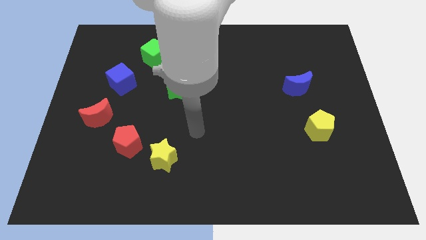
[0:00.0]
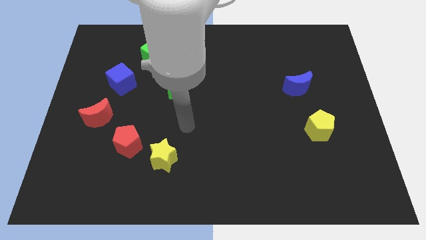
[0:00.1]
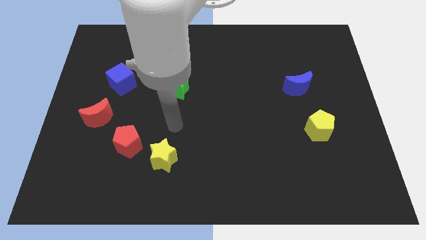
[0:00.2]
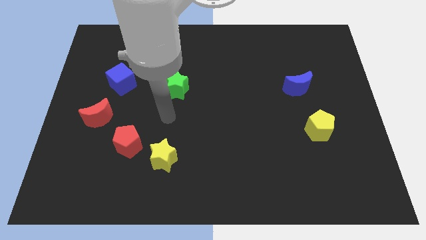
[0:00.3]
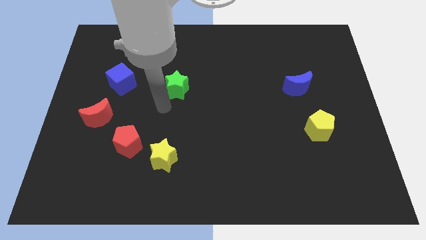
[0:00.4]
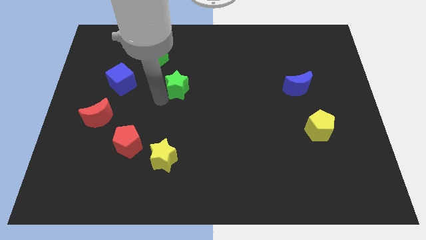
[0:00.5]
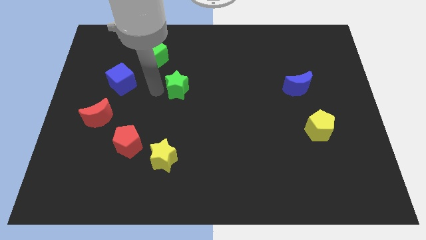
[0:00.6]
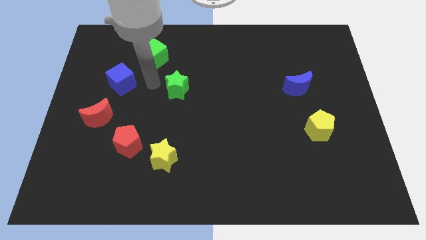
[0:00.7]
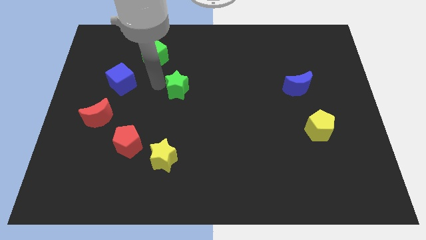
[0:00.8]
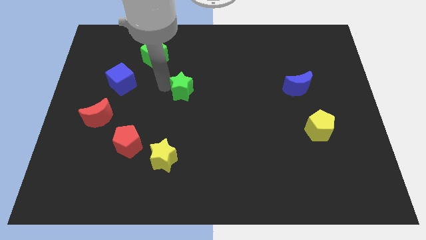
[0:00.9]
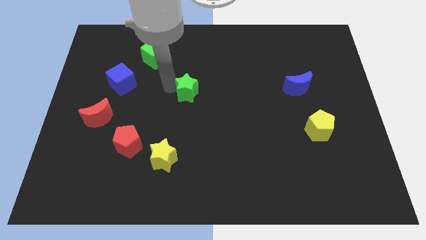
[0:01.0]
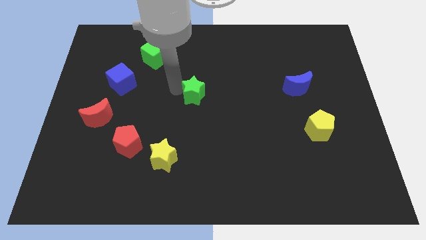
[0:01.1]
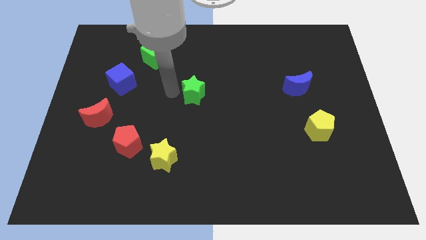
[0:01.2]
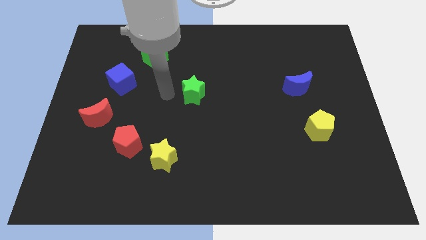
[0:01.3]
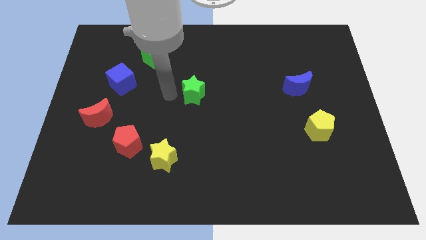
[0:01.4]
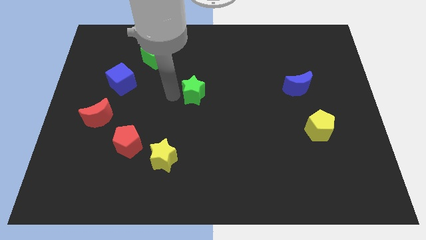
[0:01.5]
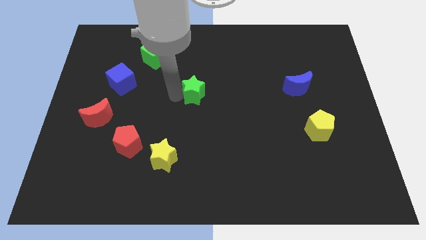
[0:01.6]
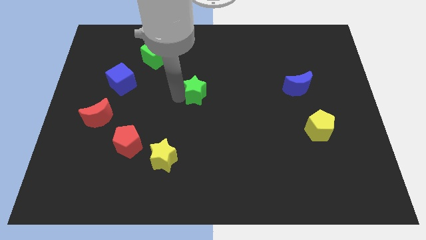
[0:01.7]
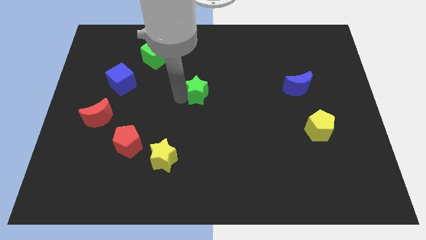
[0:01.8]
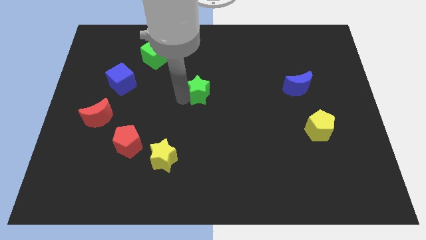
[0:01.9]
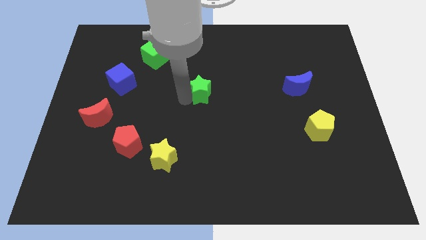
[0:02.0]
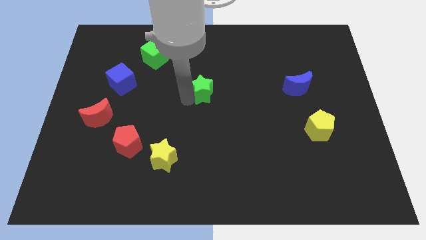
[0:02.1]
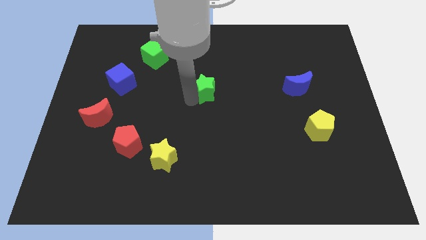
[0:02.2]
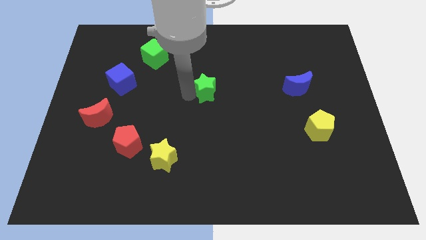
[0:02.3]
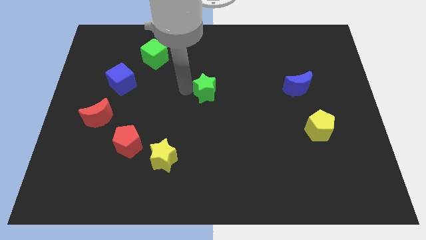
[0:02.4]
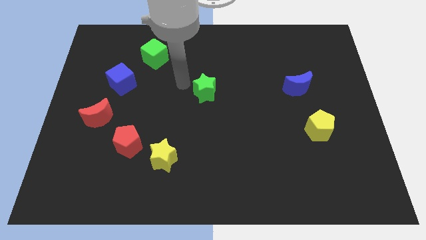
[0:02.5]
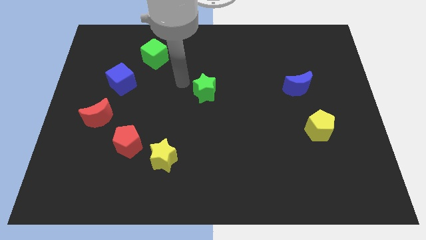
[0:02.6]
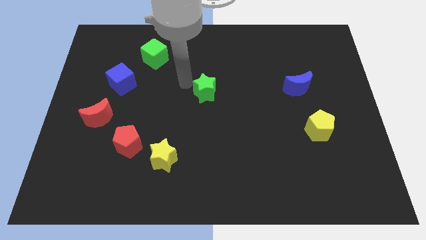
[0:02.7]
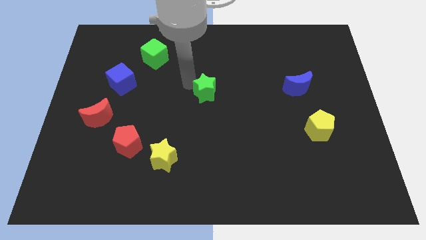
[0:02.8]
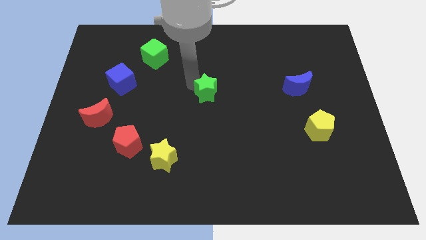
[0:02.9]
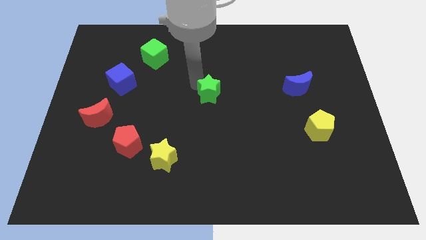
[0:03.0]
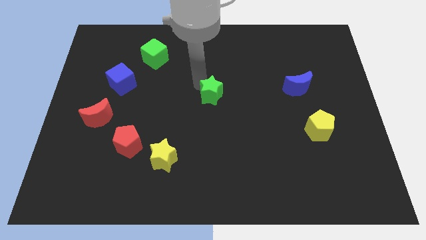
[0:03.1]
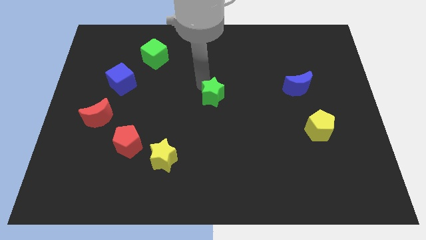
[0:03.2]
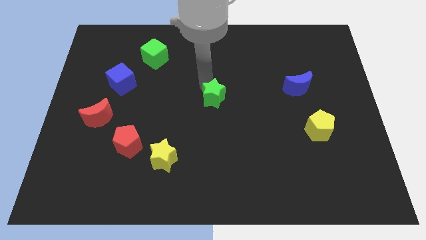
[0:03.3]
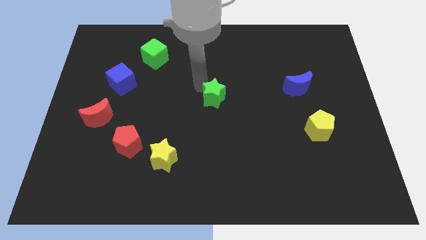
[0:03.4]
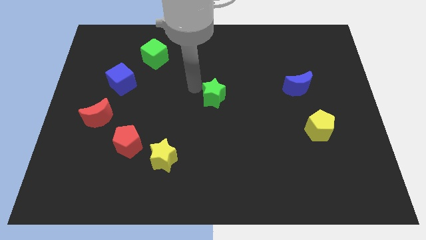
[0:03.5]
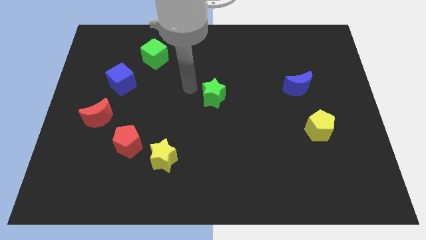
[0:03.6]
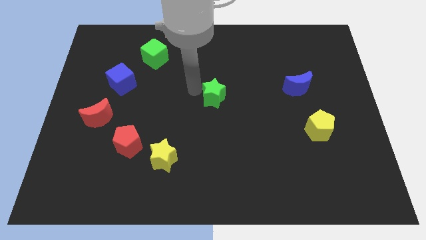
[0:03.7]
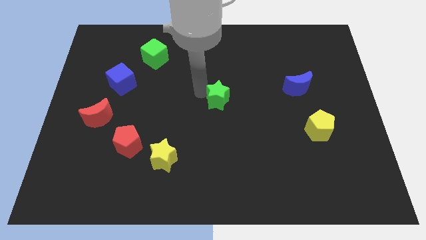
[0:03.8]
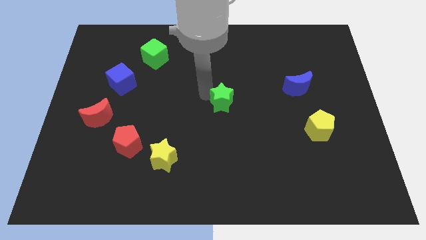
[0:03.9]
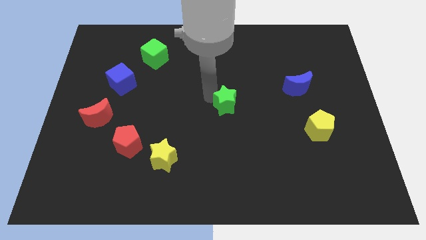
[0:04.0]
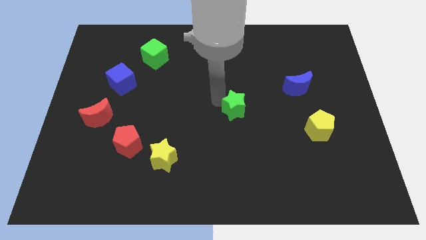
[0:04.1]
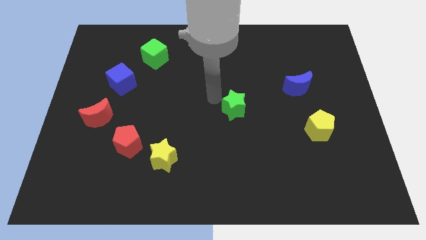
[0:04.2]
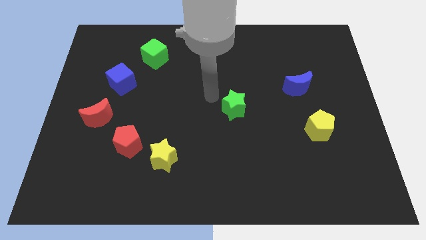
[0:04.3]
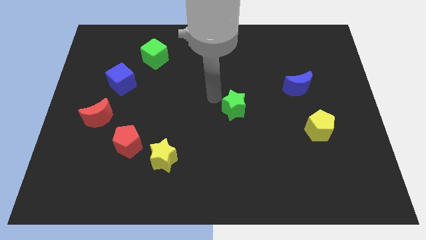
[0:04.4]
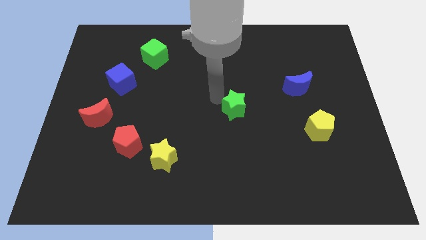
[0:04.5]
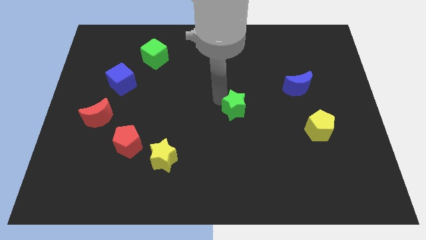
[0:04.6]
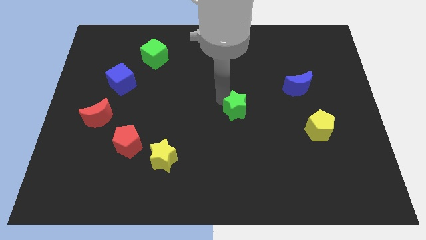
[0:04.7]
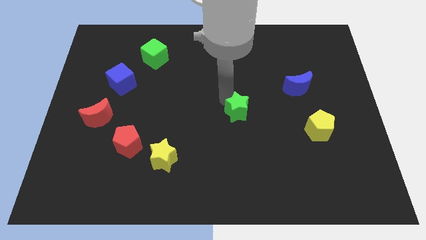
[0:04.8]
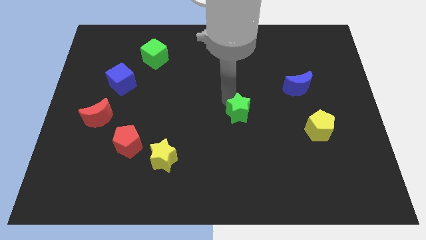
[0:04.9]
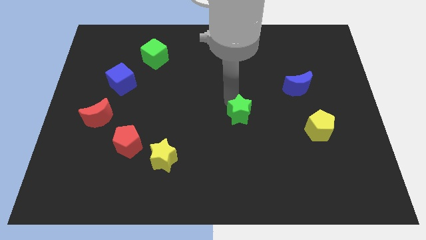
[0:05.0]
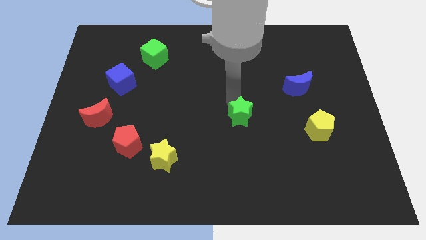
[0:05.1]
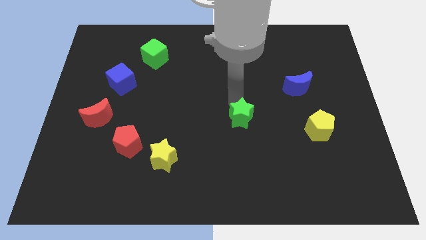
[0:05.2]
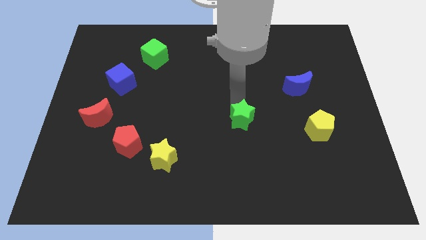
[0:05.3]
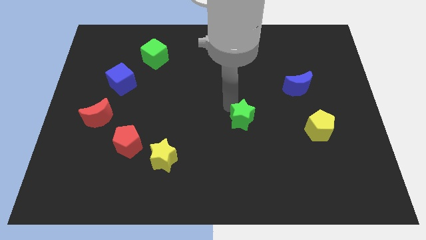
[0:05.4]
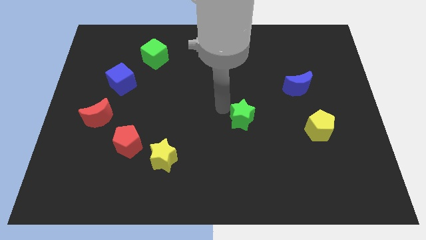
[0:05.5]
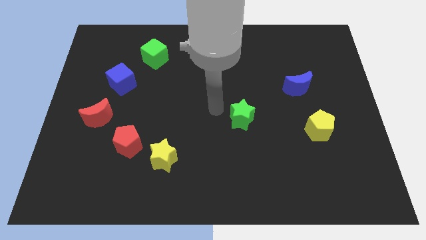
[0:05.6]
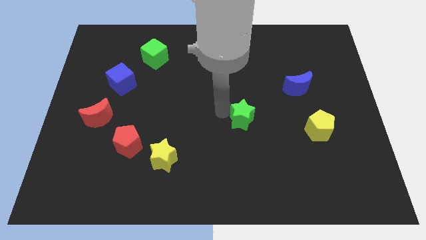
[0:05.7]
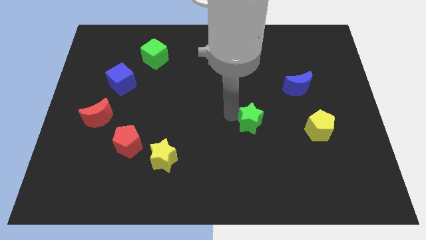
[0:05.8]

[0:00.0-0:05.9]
move the green star left of the yellow pentagon
